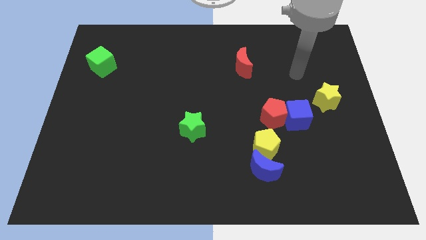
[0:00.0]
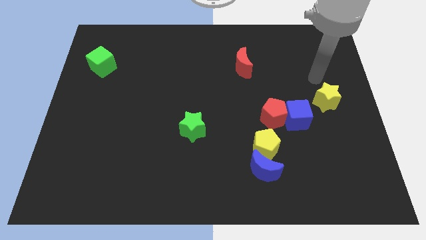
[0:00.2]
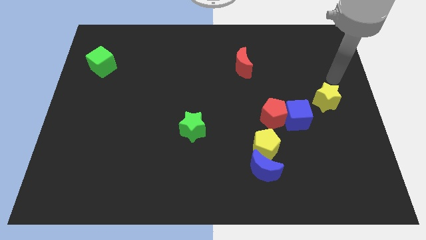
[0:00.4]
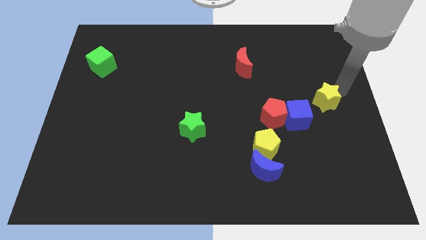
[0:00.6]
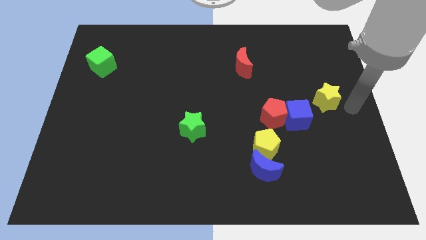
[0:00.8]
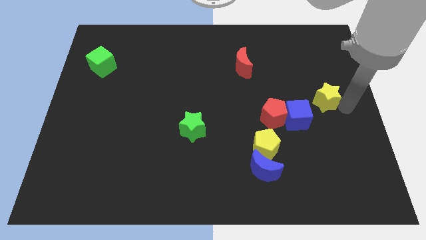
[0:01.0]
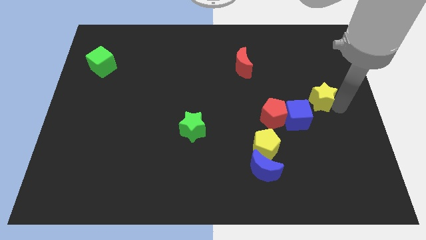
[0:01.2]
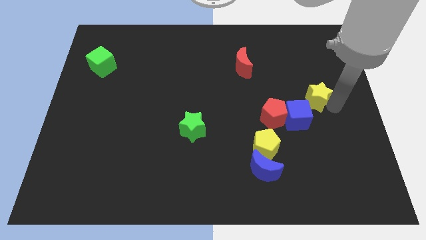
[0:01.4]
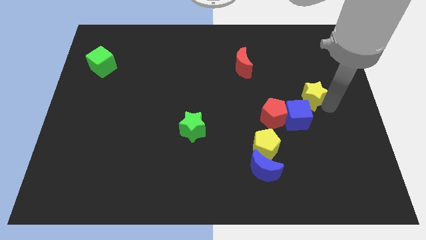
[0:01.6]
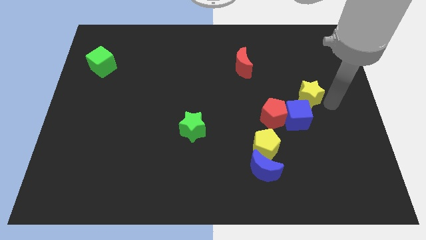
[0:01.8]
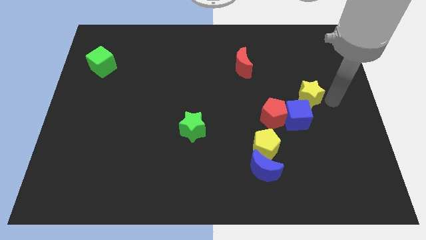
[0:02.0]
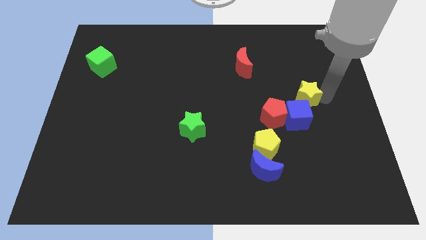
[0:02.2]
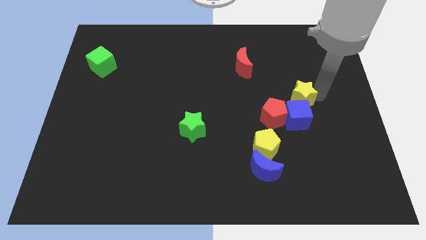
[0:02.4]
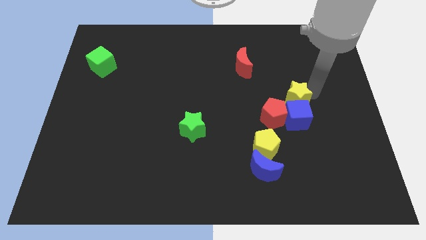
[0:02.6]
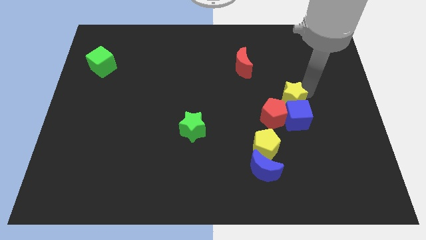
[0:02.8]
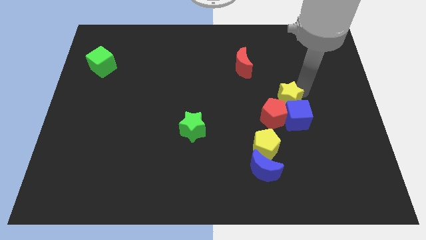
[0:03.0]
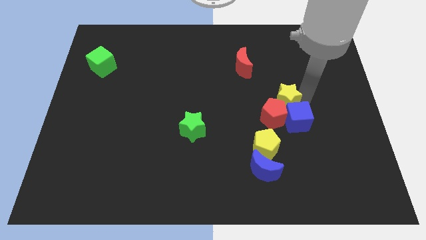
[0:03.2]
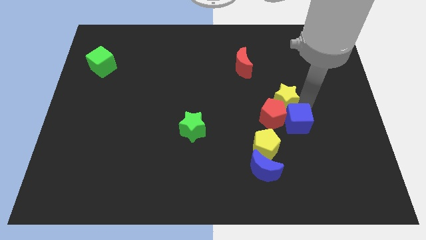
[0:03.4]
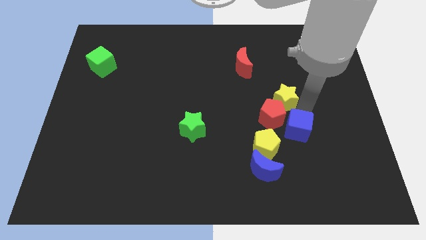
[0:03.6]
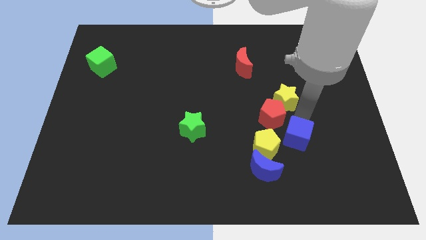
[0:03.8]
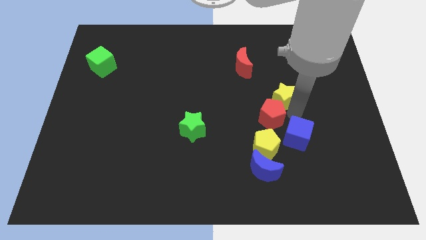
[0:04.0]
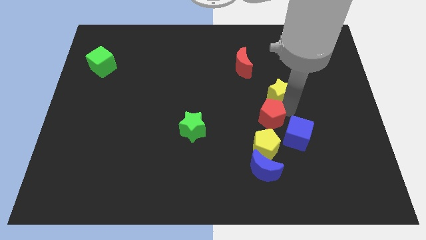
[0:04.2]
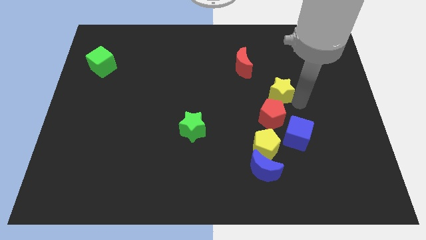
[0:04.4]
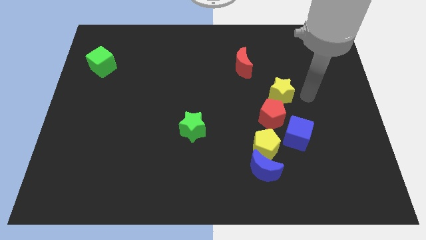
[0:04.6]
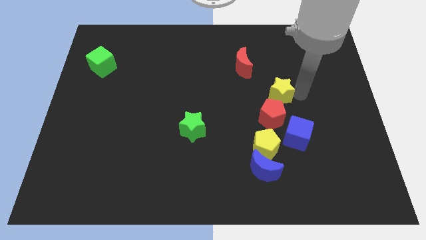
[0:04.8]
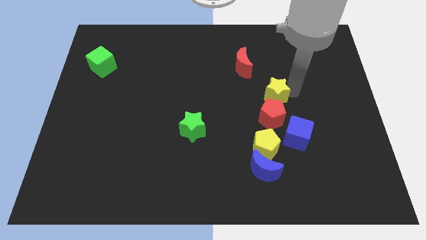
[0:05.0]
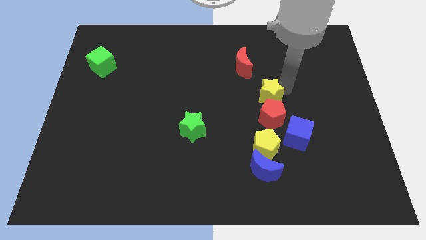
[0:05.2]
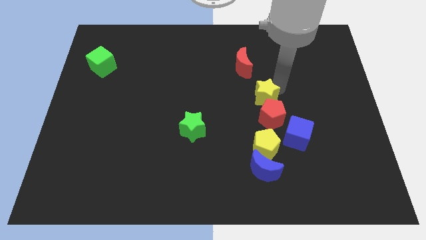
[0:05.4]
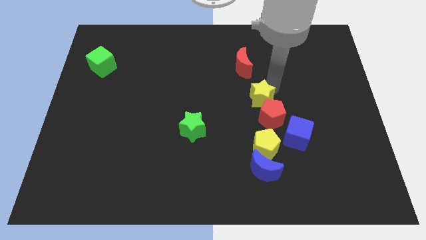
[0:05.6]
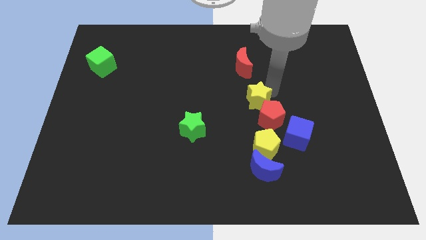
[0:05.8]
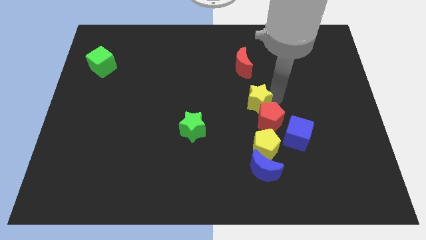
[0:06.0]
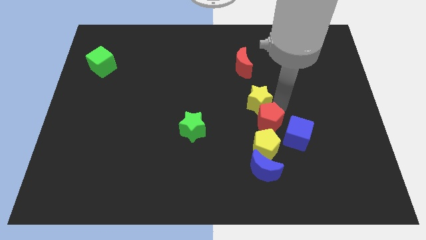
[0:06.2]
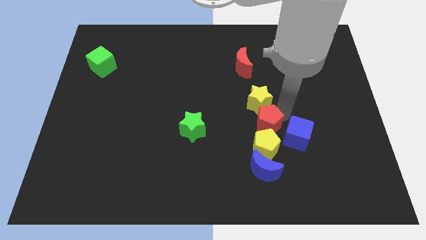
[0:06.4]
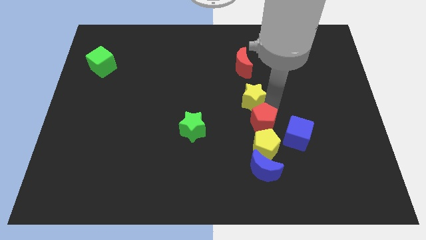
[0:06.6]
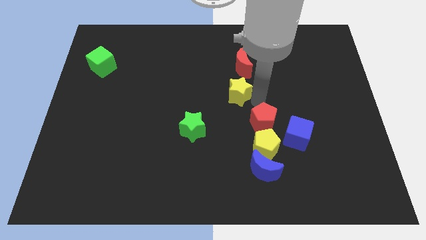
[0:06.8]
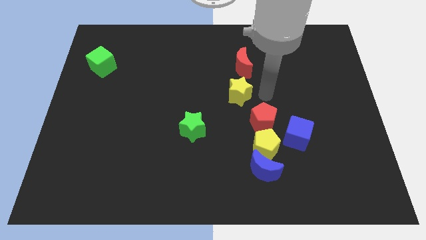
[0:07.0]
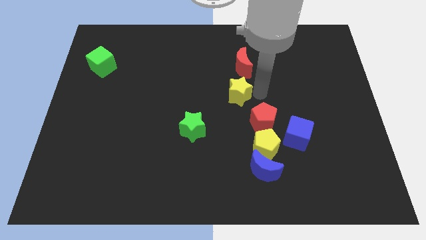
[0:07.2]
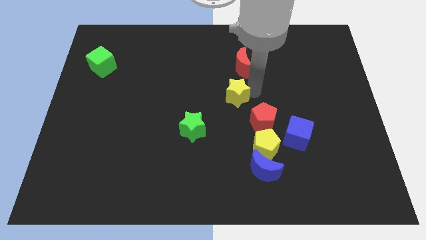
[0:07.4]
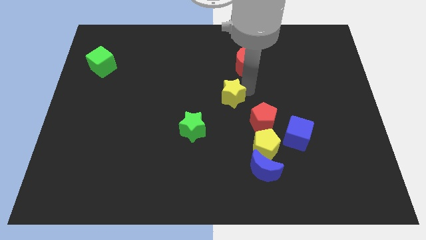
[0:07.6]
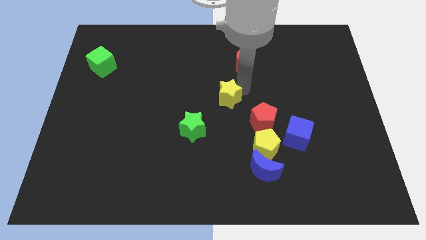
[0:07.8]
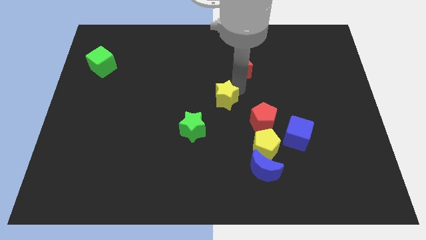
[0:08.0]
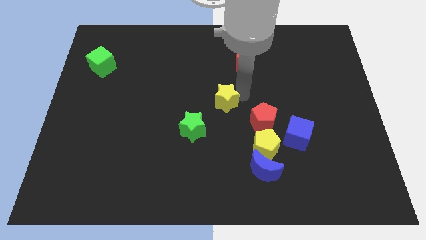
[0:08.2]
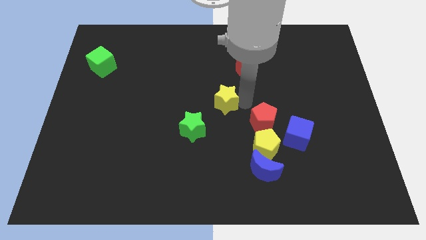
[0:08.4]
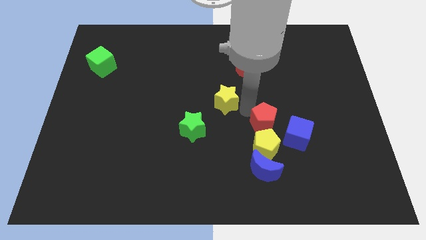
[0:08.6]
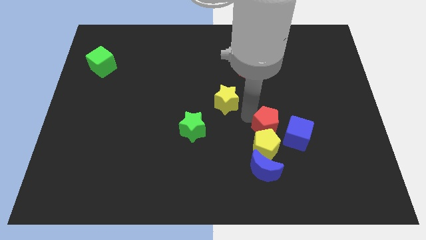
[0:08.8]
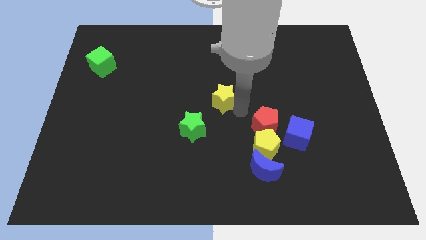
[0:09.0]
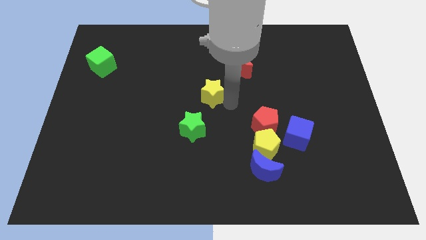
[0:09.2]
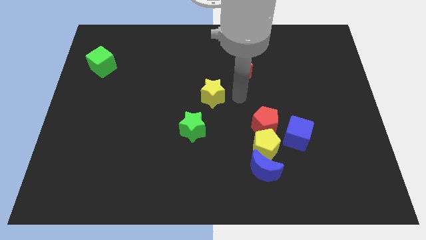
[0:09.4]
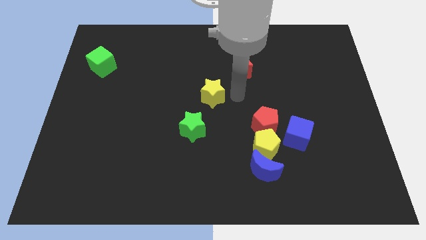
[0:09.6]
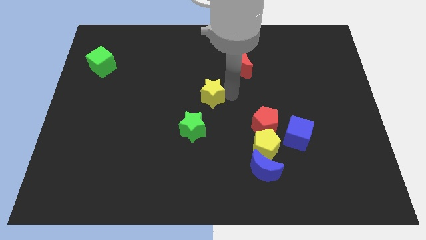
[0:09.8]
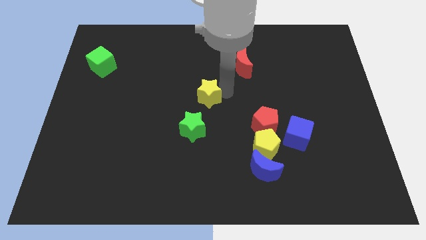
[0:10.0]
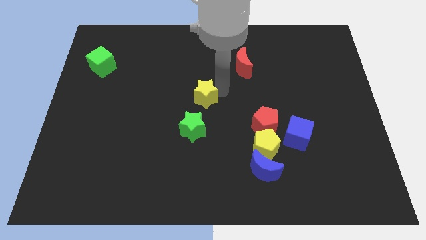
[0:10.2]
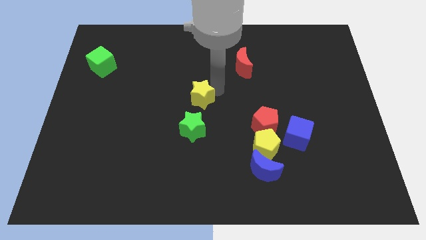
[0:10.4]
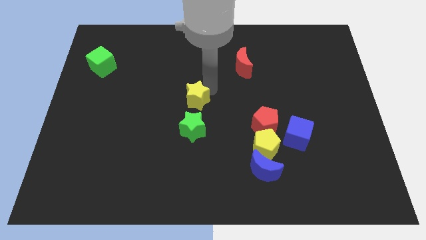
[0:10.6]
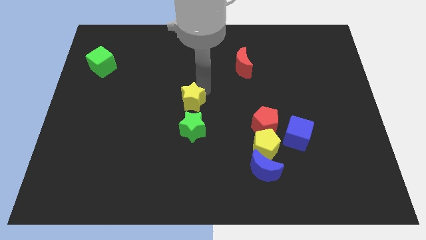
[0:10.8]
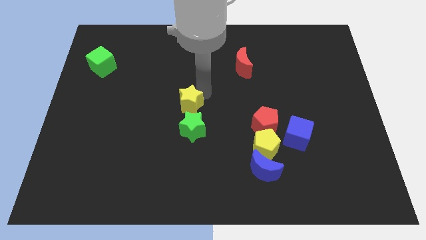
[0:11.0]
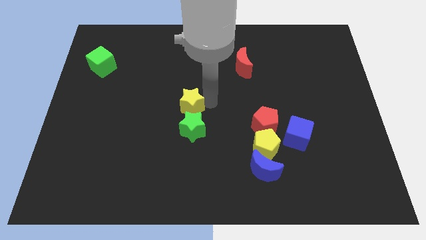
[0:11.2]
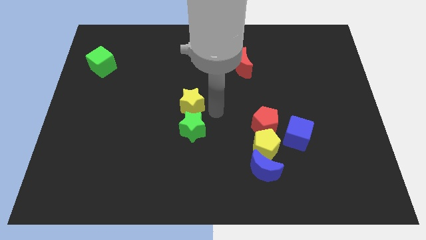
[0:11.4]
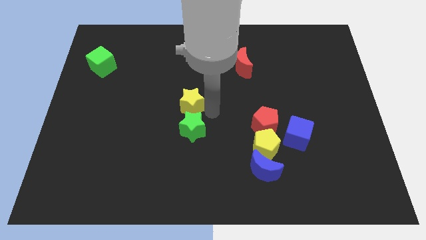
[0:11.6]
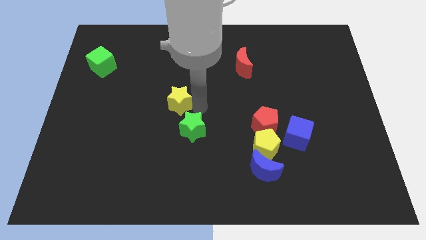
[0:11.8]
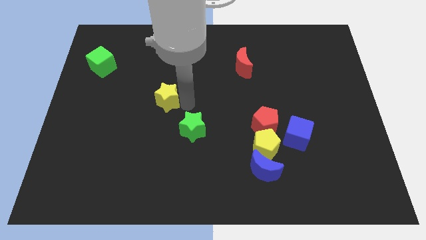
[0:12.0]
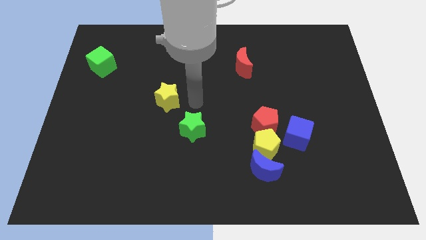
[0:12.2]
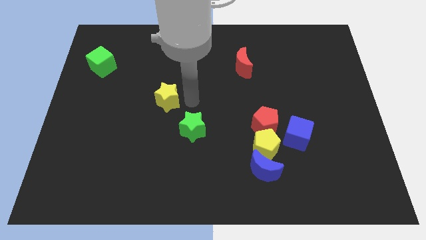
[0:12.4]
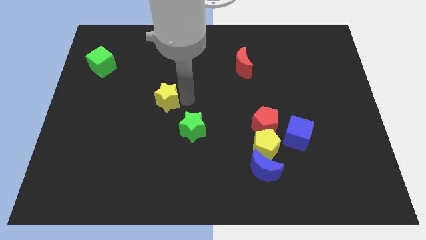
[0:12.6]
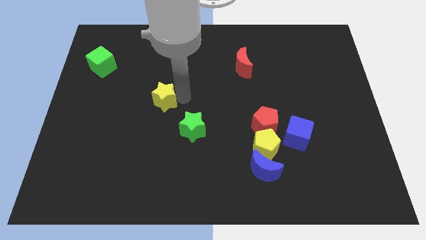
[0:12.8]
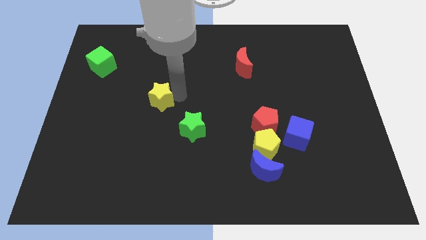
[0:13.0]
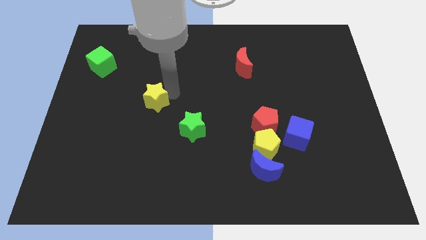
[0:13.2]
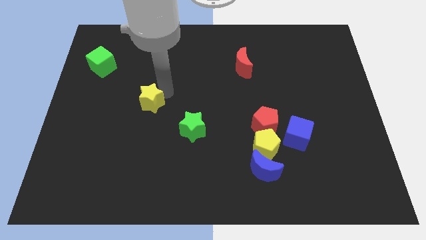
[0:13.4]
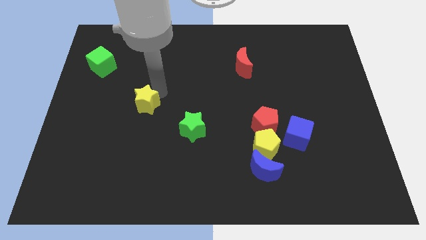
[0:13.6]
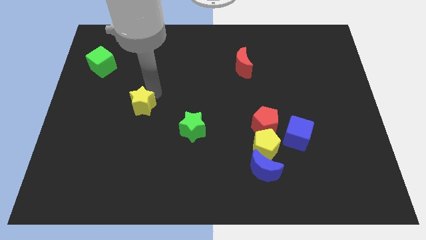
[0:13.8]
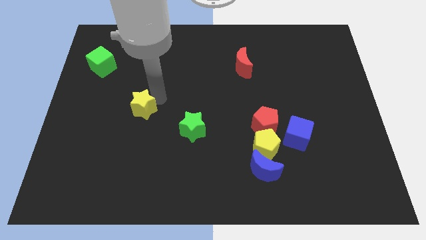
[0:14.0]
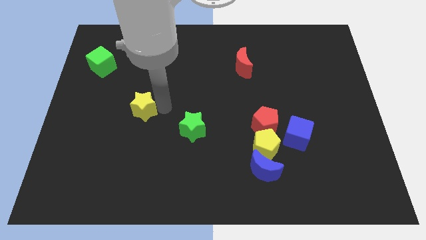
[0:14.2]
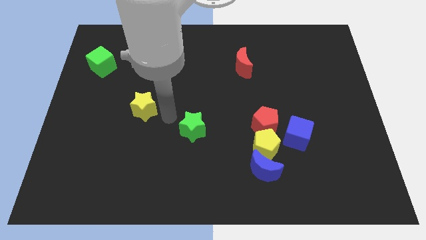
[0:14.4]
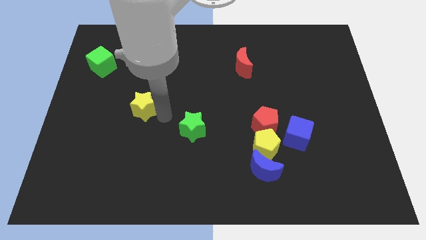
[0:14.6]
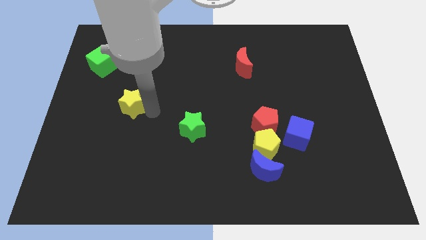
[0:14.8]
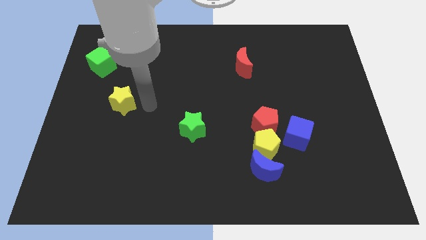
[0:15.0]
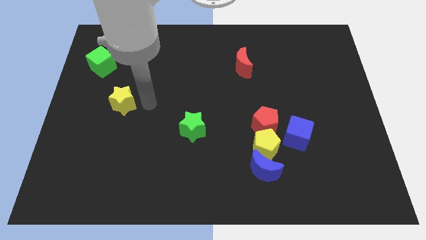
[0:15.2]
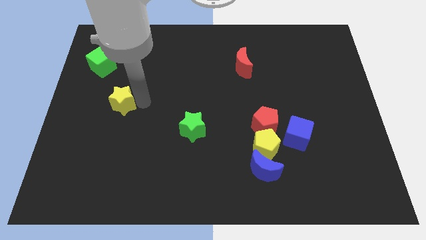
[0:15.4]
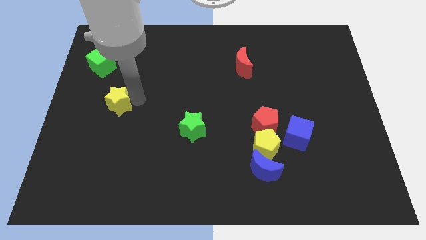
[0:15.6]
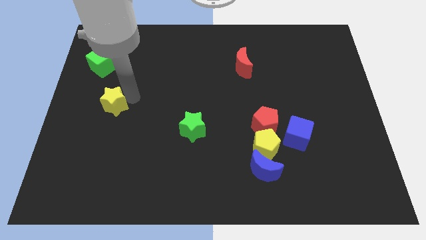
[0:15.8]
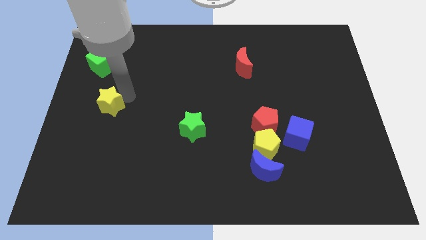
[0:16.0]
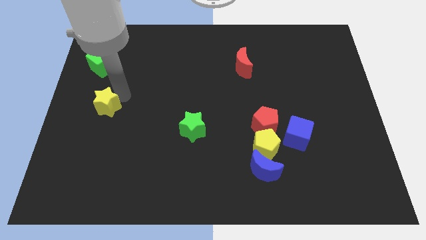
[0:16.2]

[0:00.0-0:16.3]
slide the yellow star to the left side of the board
